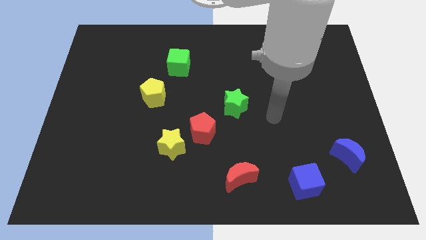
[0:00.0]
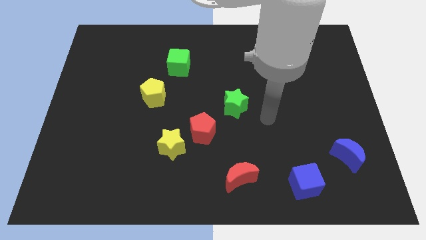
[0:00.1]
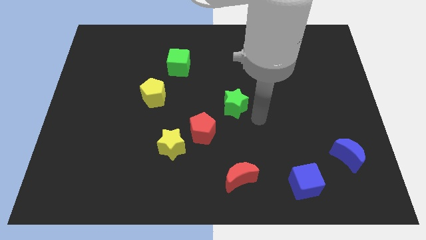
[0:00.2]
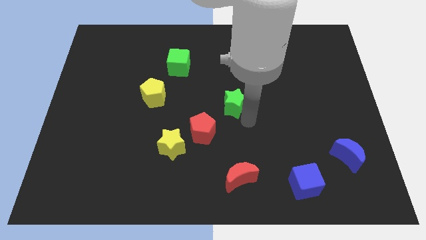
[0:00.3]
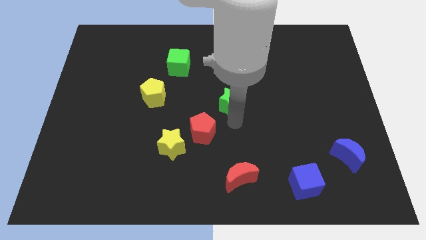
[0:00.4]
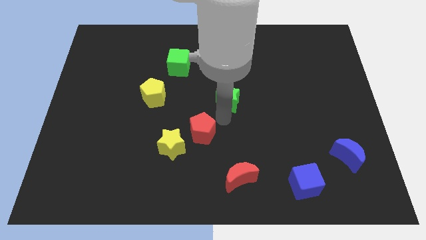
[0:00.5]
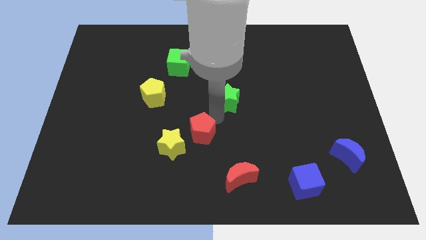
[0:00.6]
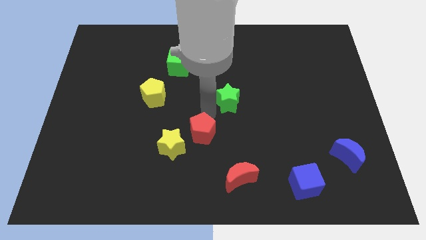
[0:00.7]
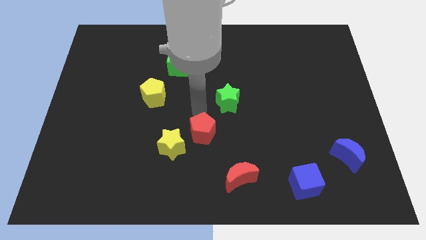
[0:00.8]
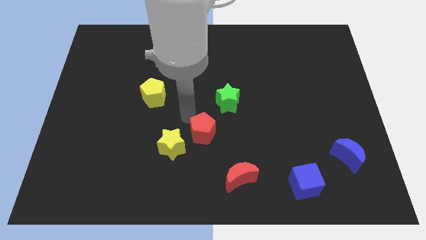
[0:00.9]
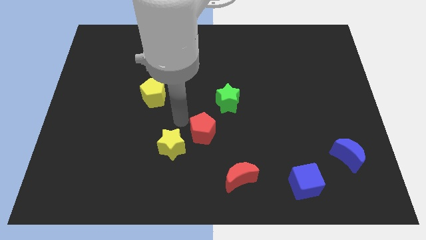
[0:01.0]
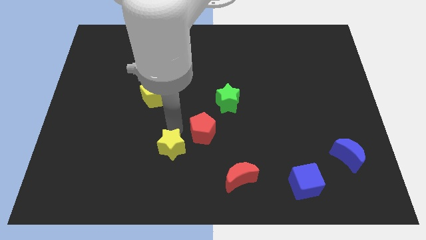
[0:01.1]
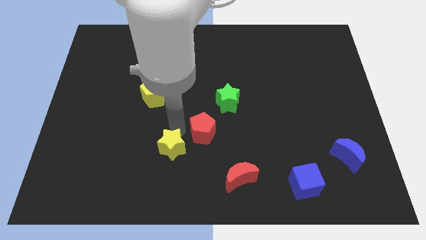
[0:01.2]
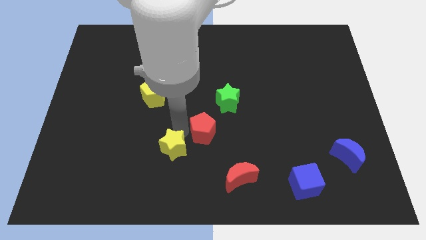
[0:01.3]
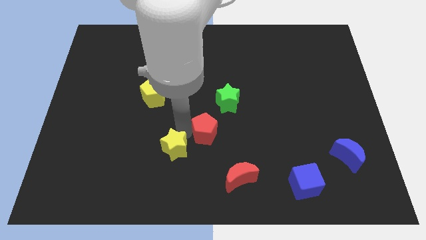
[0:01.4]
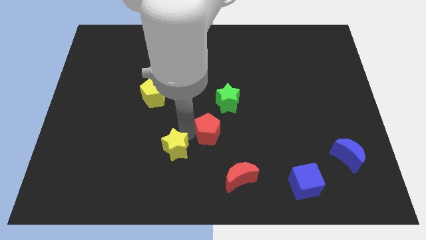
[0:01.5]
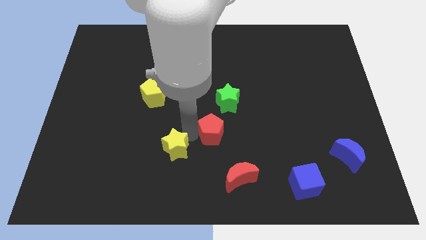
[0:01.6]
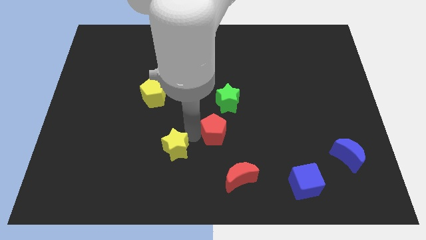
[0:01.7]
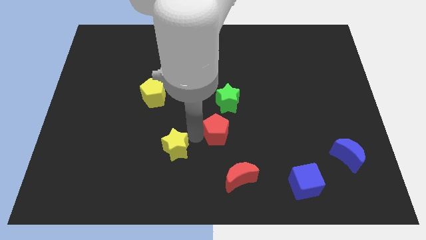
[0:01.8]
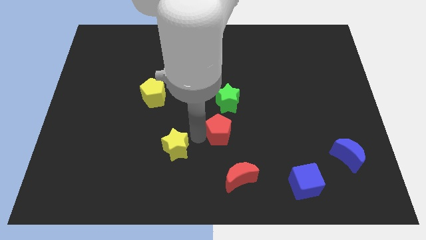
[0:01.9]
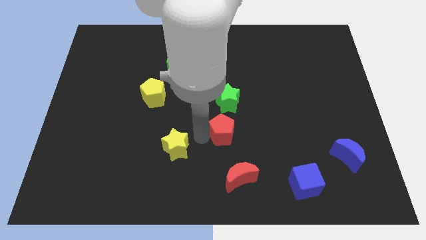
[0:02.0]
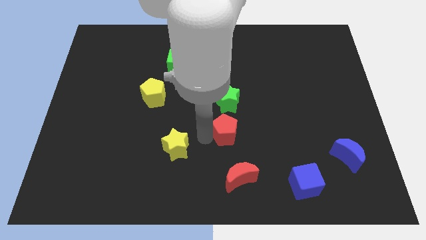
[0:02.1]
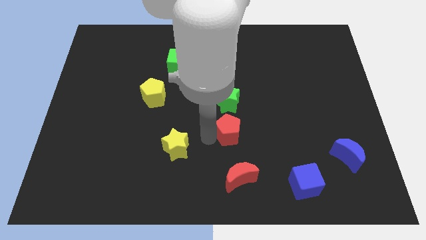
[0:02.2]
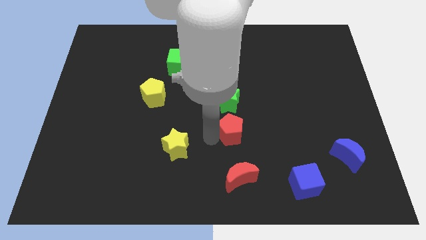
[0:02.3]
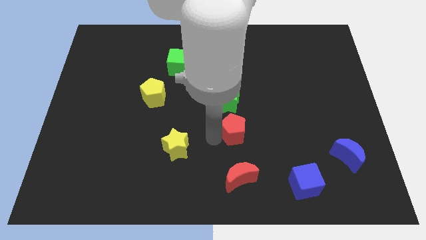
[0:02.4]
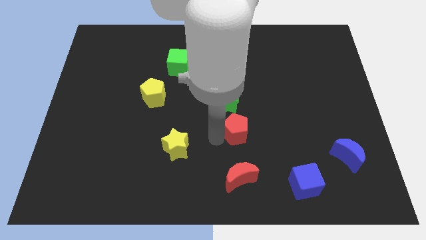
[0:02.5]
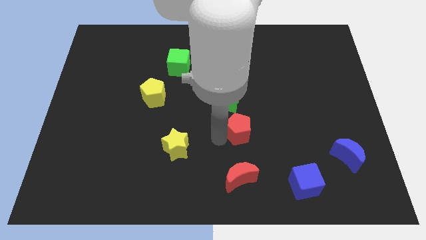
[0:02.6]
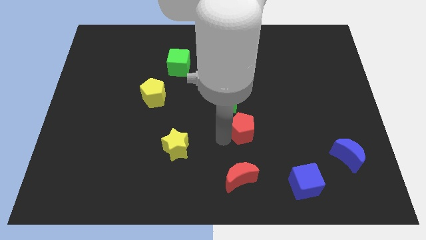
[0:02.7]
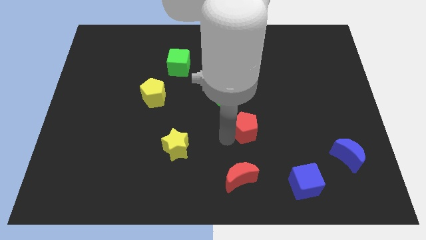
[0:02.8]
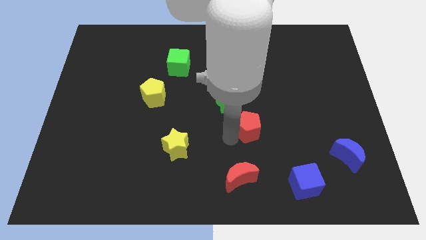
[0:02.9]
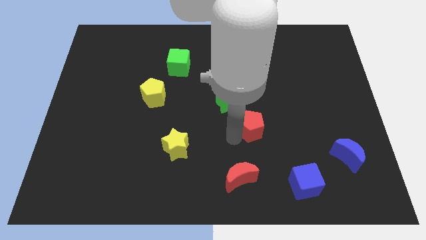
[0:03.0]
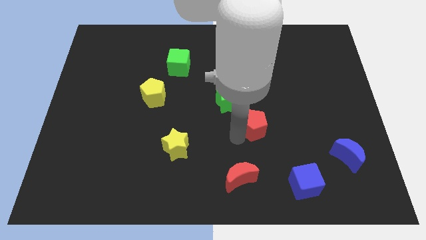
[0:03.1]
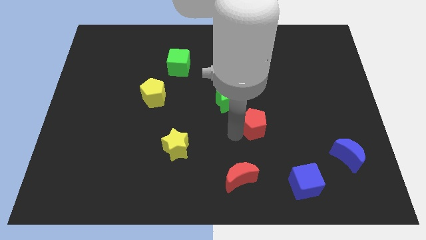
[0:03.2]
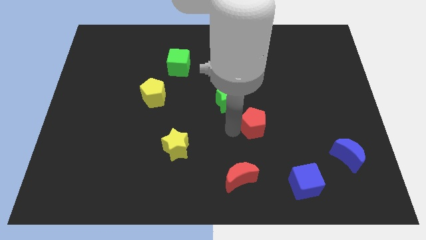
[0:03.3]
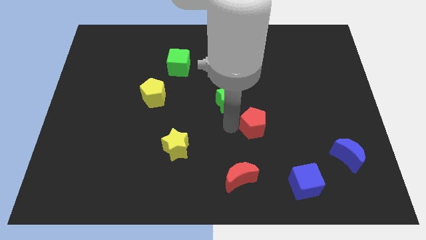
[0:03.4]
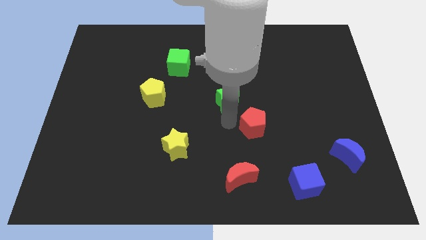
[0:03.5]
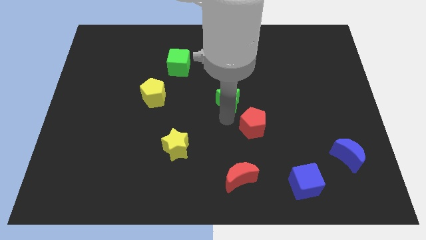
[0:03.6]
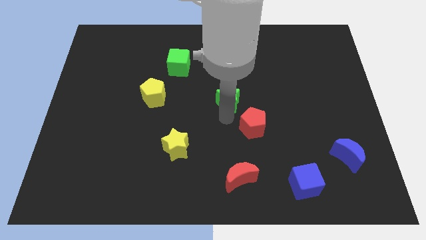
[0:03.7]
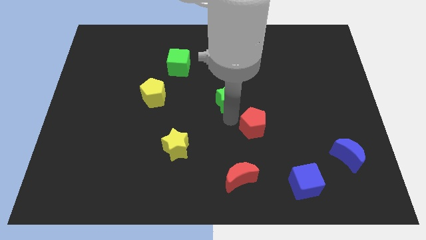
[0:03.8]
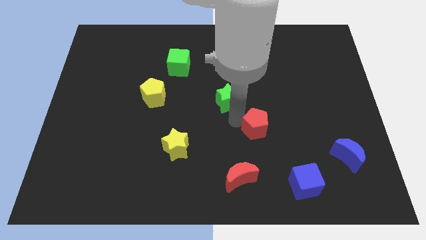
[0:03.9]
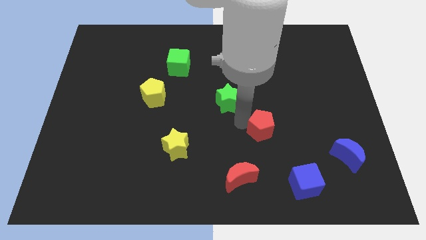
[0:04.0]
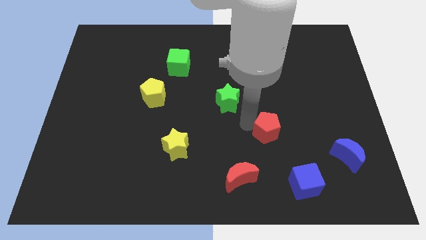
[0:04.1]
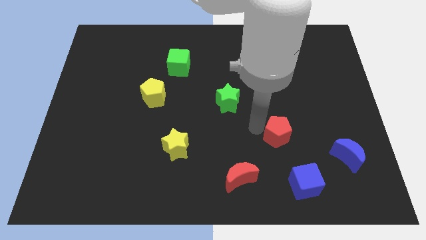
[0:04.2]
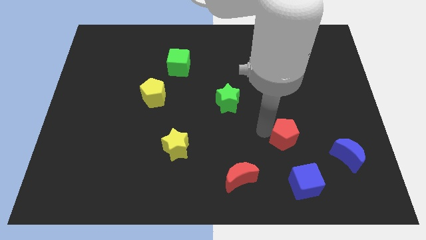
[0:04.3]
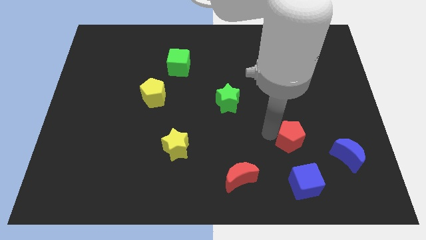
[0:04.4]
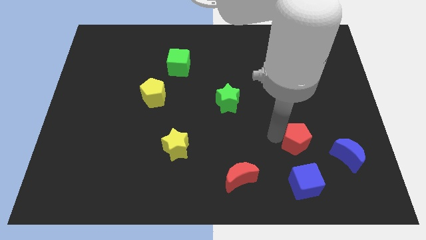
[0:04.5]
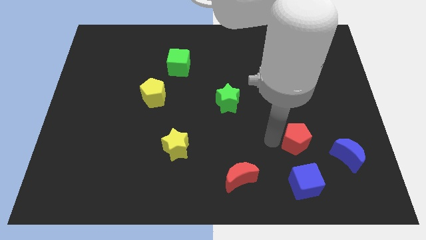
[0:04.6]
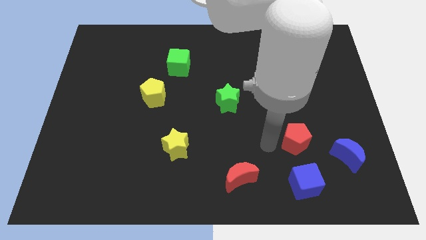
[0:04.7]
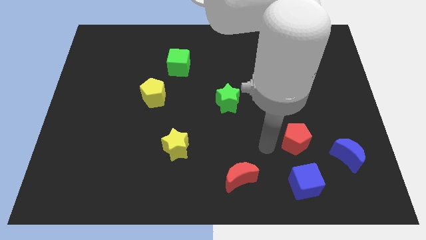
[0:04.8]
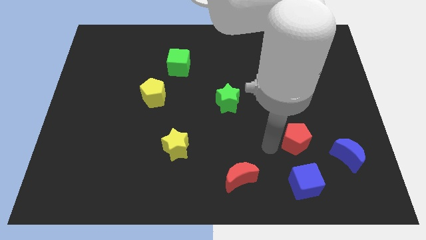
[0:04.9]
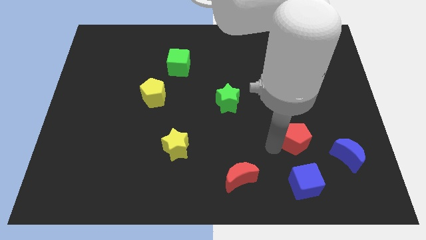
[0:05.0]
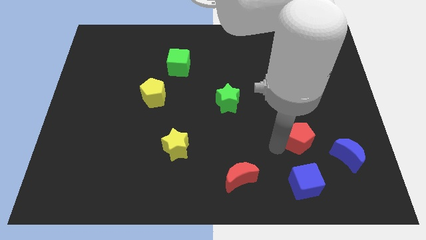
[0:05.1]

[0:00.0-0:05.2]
put the red pentagon diagonally up and to the left of the blue moon

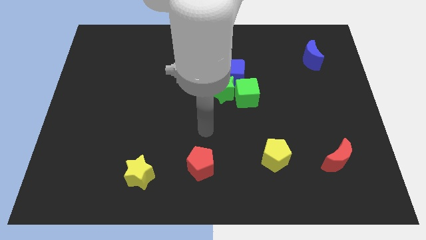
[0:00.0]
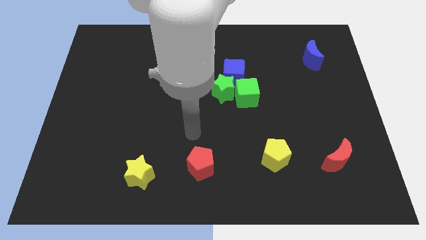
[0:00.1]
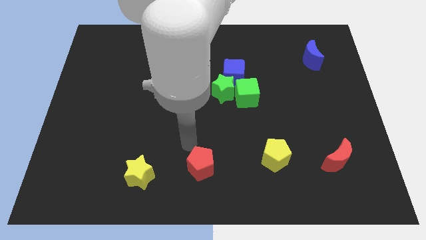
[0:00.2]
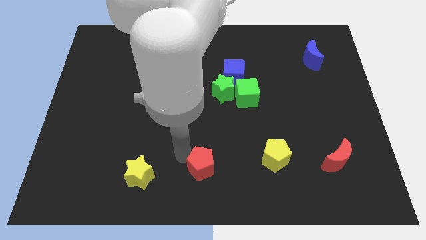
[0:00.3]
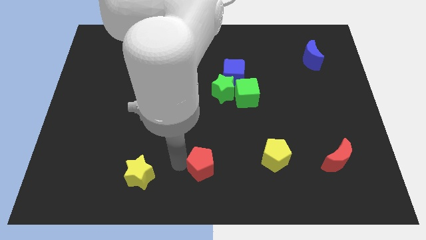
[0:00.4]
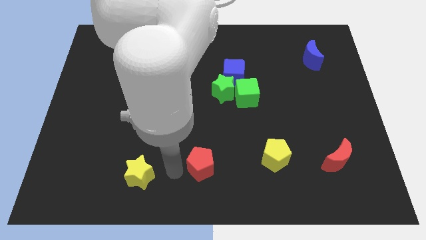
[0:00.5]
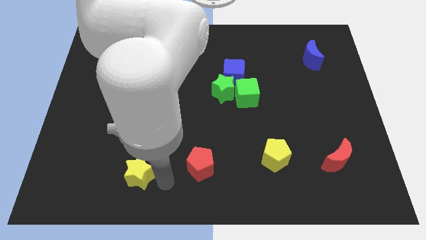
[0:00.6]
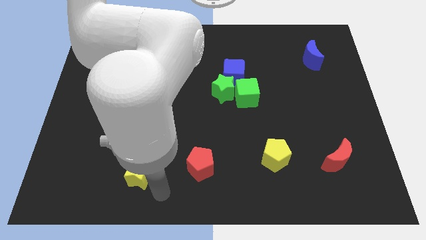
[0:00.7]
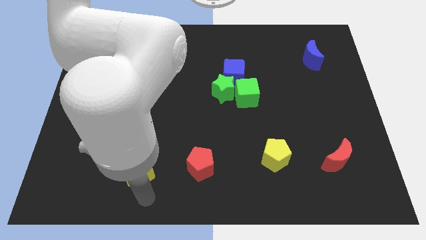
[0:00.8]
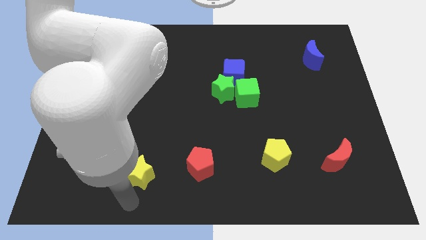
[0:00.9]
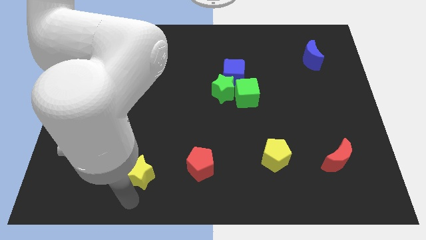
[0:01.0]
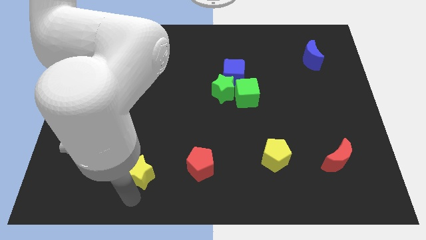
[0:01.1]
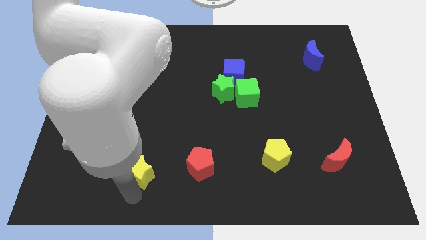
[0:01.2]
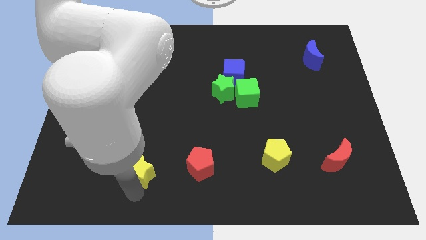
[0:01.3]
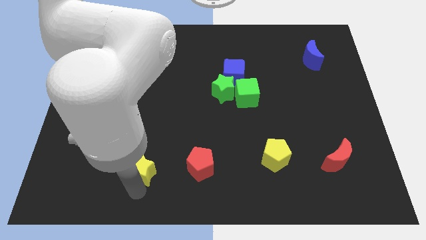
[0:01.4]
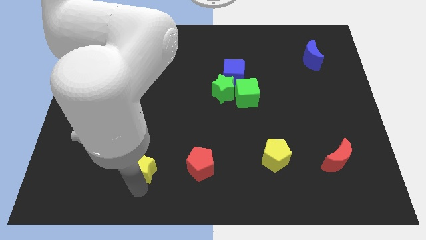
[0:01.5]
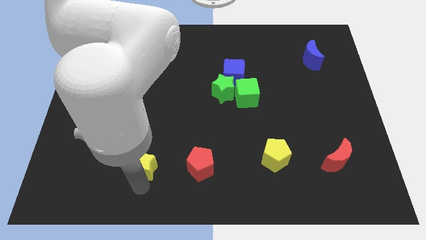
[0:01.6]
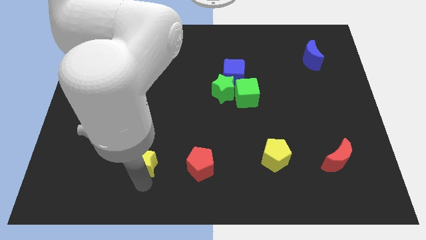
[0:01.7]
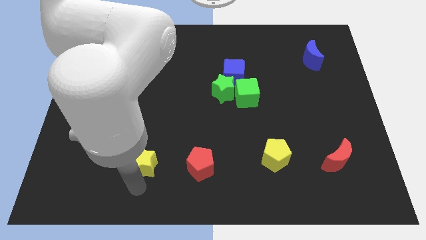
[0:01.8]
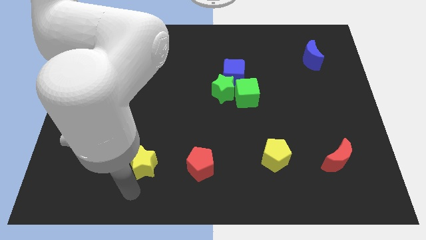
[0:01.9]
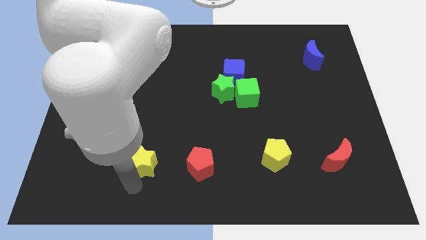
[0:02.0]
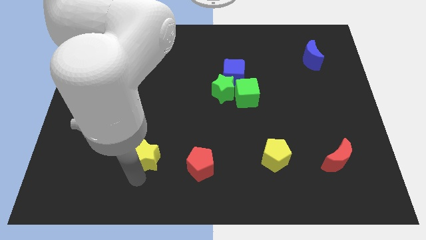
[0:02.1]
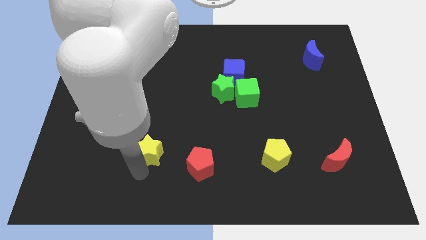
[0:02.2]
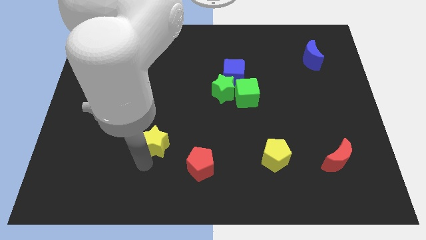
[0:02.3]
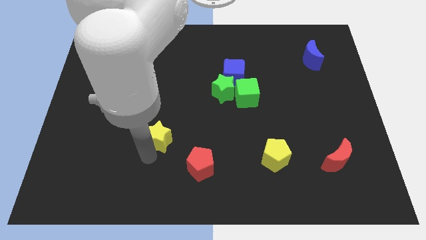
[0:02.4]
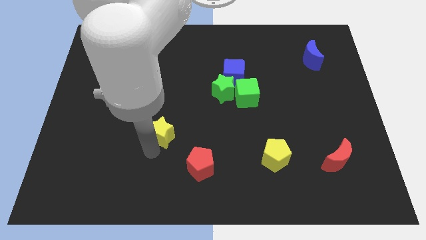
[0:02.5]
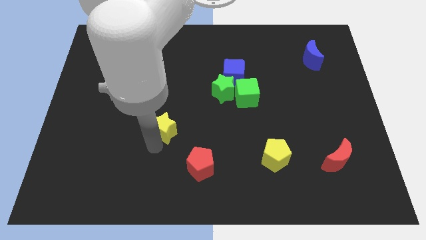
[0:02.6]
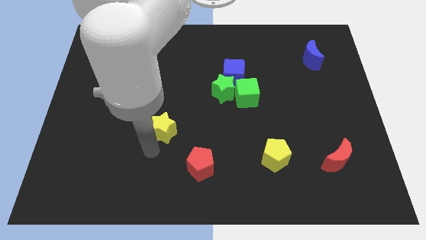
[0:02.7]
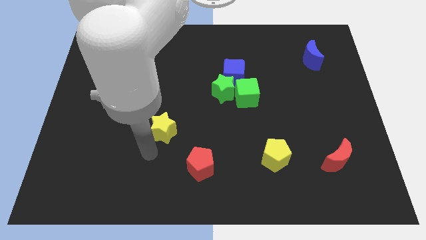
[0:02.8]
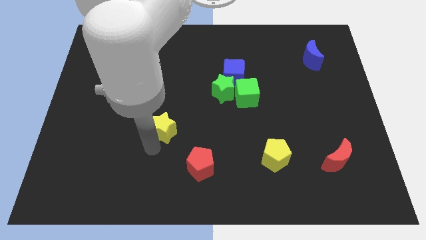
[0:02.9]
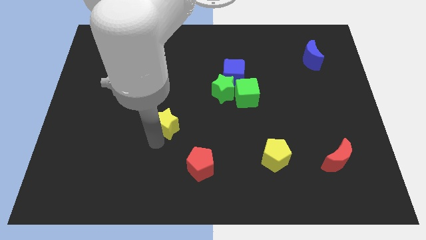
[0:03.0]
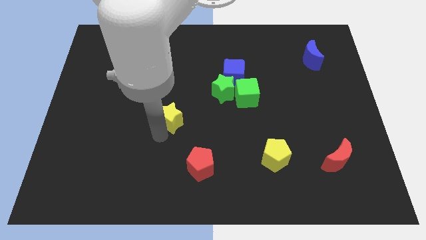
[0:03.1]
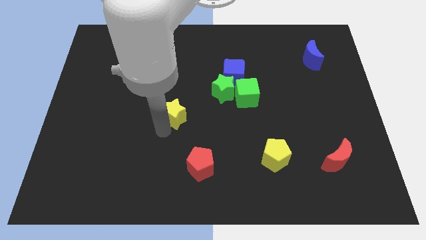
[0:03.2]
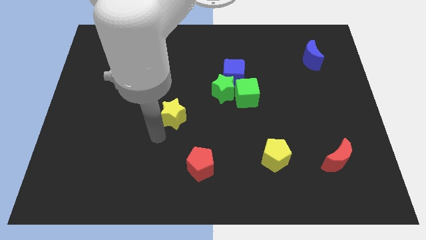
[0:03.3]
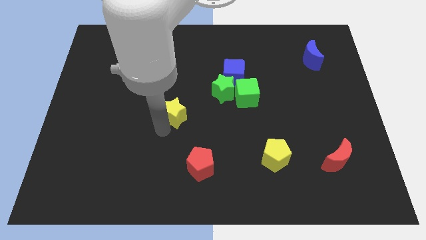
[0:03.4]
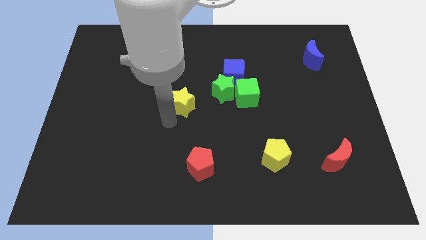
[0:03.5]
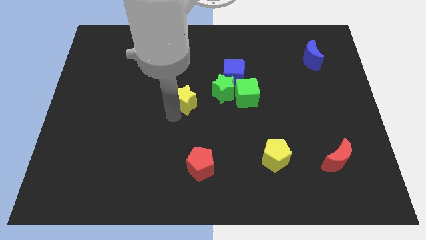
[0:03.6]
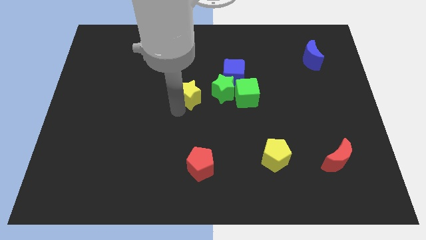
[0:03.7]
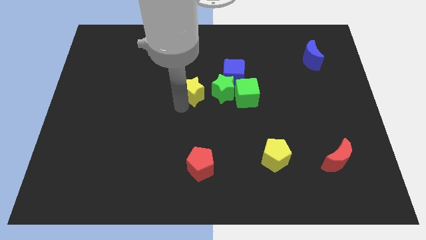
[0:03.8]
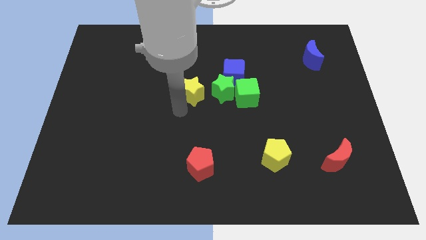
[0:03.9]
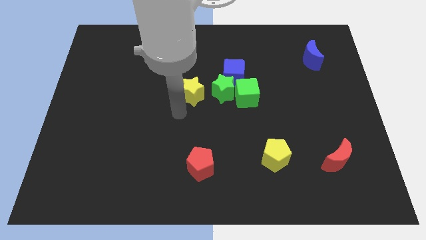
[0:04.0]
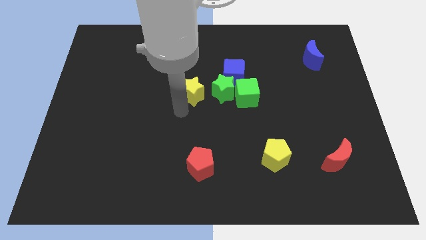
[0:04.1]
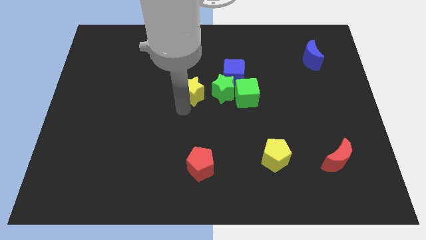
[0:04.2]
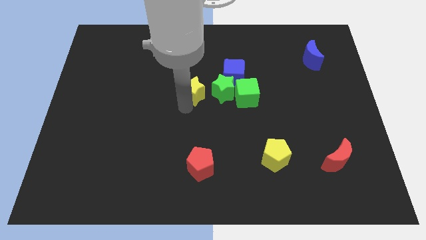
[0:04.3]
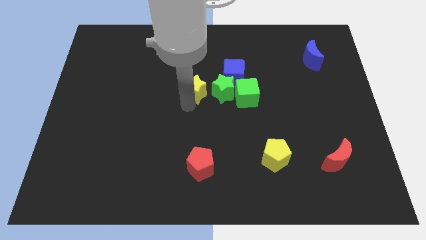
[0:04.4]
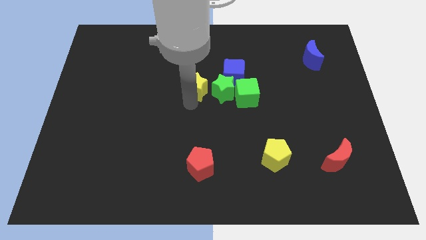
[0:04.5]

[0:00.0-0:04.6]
slide the yellow star to the top left side of the green star
